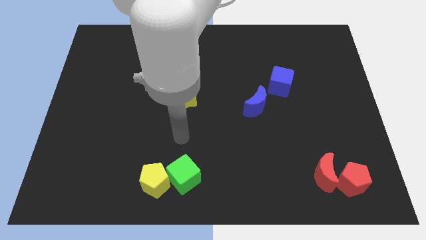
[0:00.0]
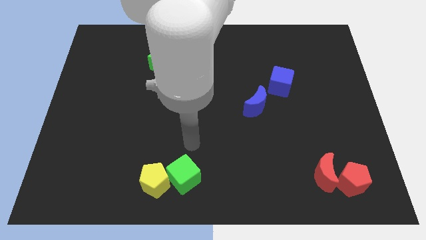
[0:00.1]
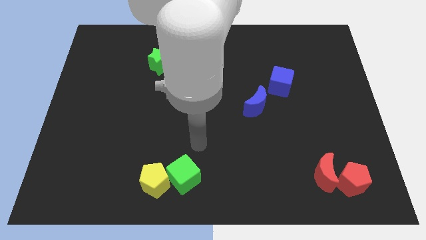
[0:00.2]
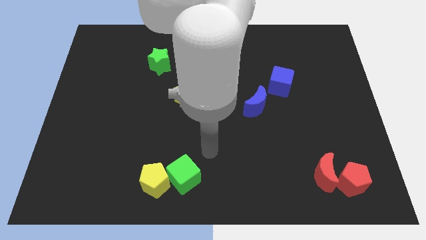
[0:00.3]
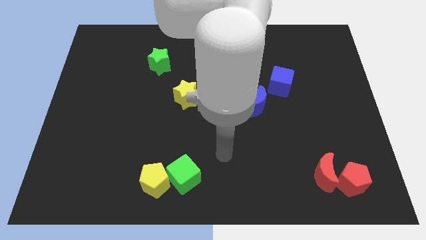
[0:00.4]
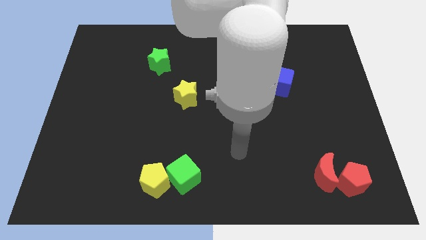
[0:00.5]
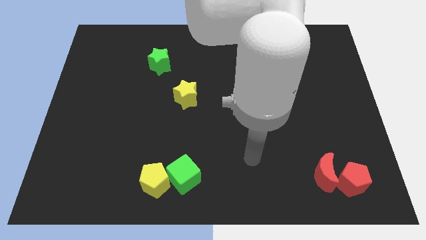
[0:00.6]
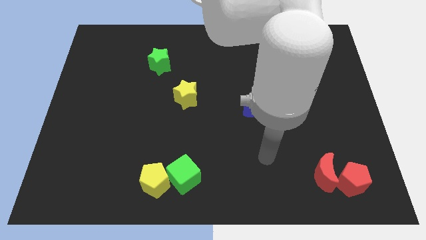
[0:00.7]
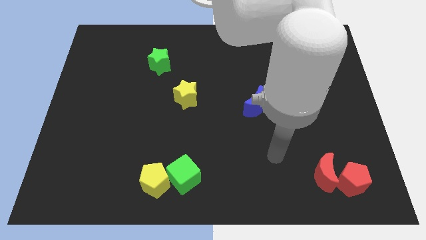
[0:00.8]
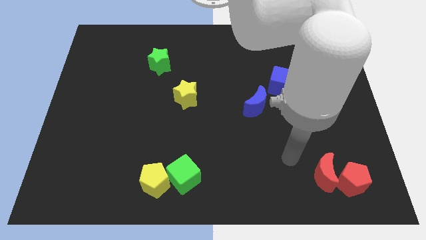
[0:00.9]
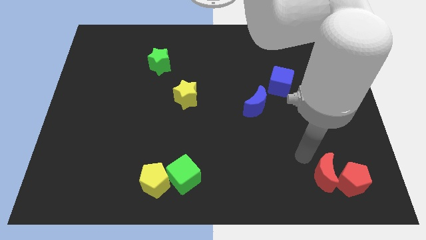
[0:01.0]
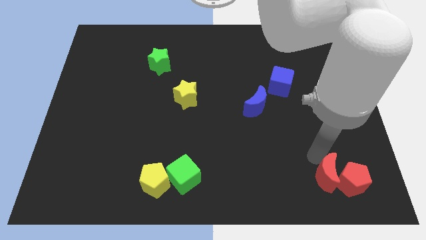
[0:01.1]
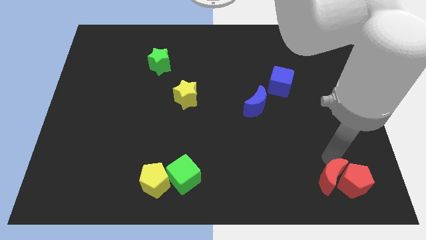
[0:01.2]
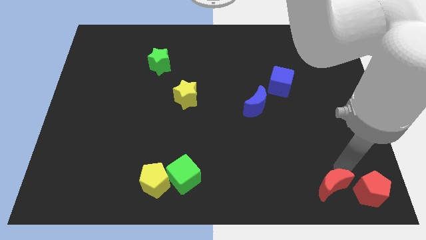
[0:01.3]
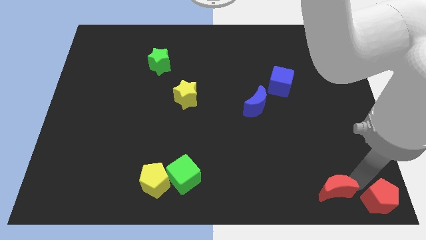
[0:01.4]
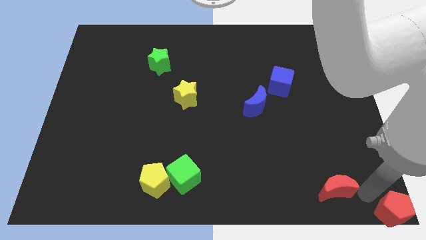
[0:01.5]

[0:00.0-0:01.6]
pull the red moon apart from the red pentagon

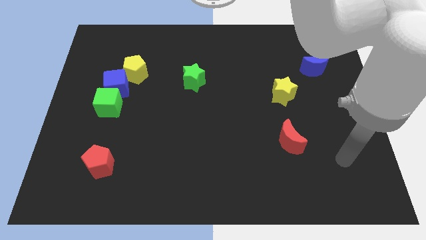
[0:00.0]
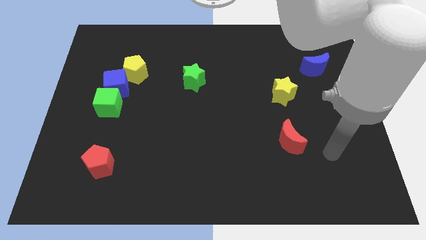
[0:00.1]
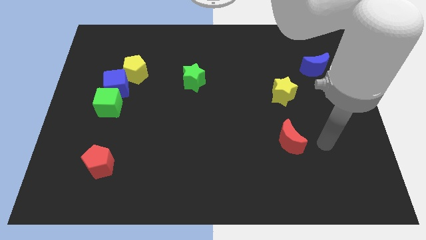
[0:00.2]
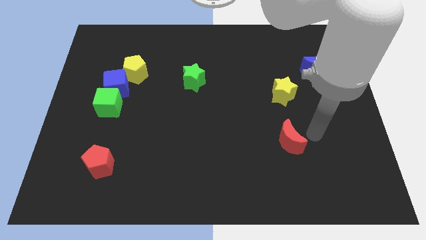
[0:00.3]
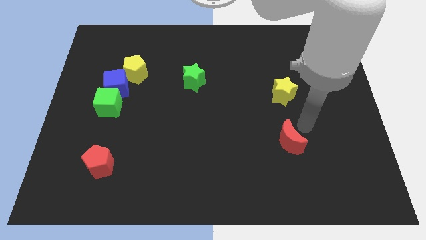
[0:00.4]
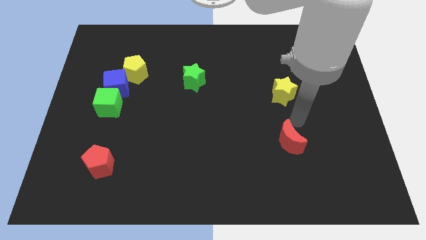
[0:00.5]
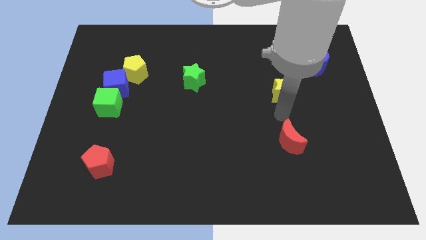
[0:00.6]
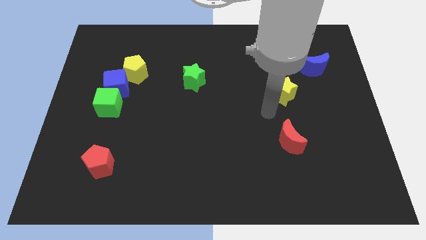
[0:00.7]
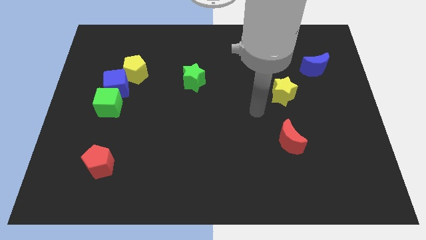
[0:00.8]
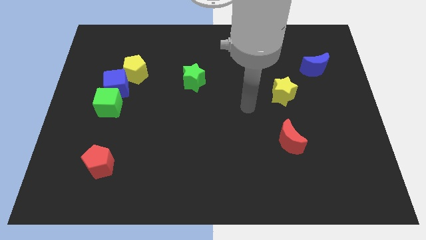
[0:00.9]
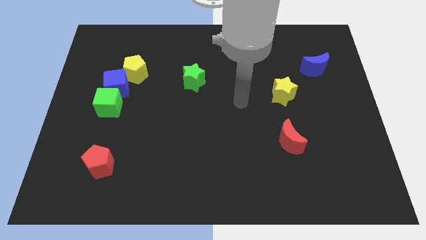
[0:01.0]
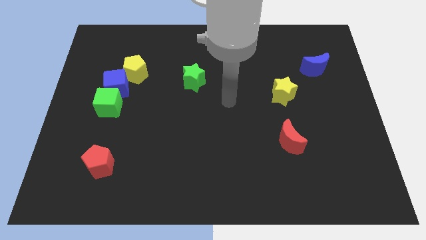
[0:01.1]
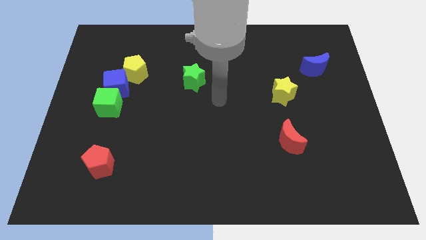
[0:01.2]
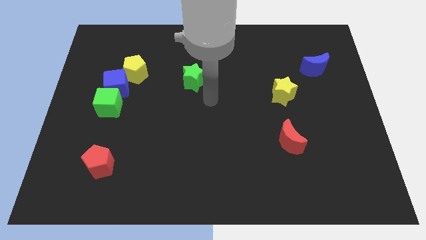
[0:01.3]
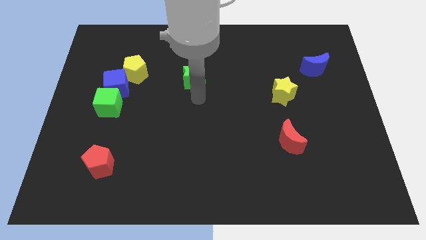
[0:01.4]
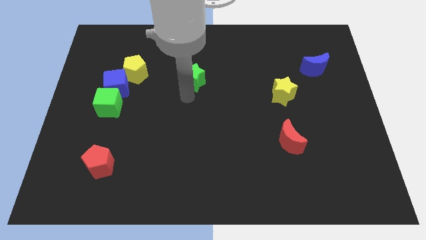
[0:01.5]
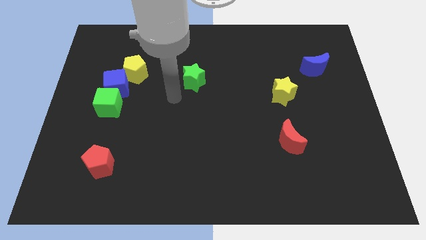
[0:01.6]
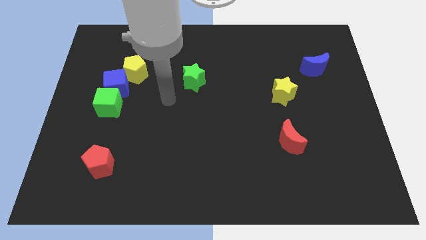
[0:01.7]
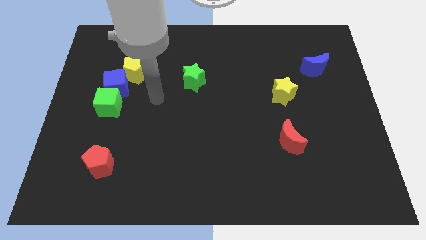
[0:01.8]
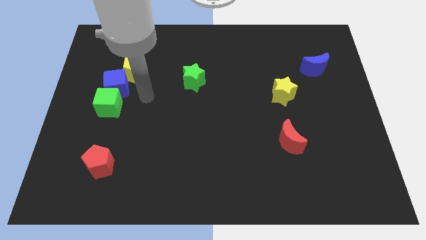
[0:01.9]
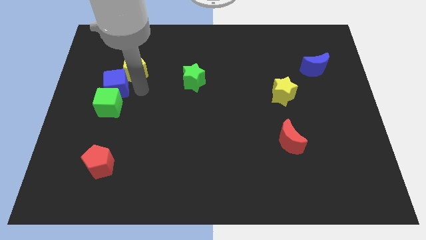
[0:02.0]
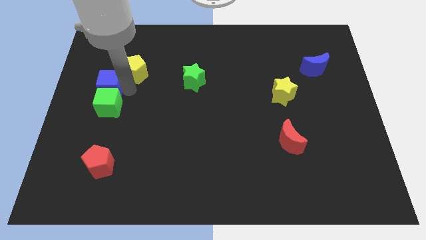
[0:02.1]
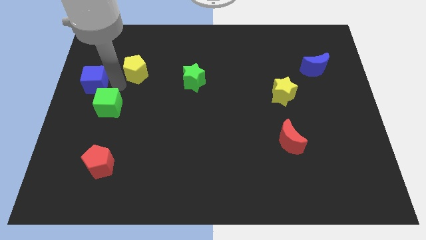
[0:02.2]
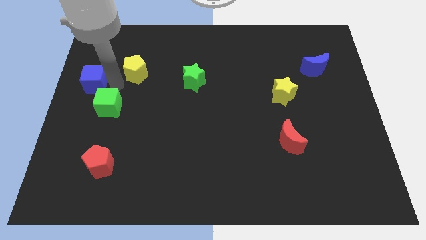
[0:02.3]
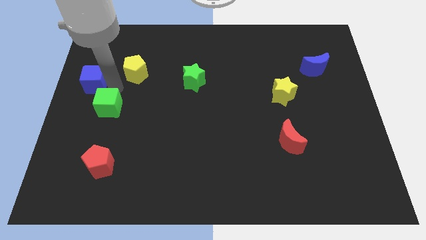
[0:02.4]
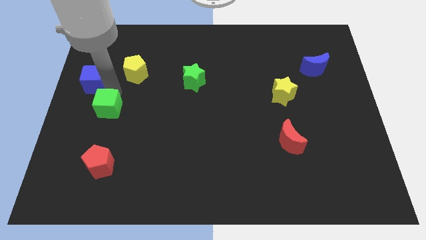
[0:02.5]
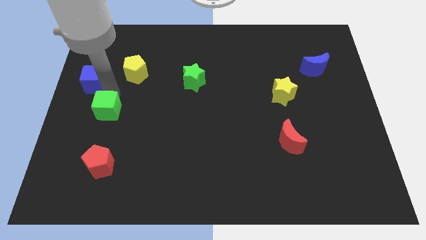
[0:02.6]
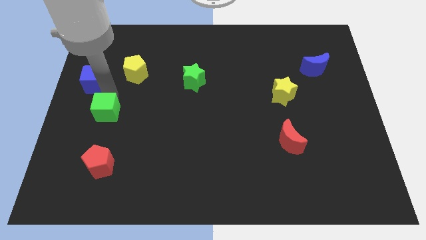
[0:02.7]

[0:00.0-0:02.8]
move the green cube away from the blue cube

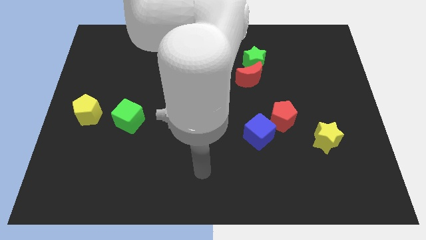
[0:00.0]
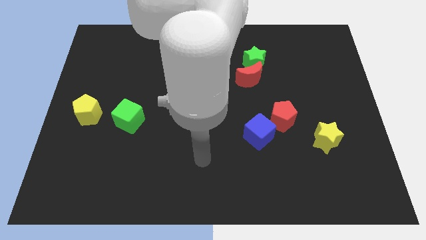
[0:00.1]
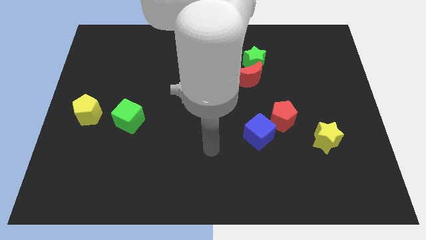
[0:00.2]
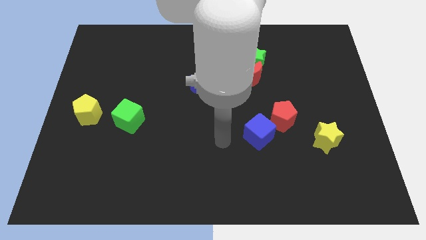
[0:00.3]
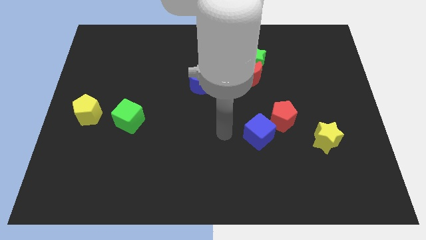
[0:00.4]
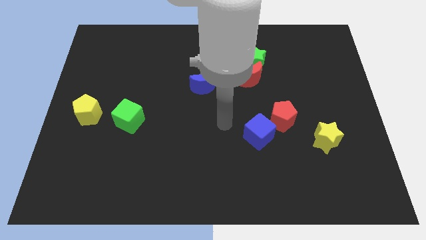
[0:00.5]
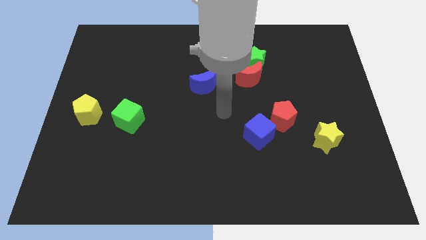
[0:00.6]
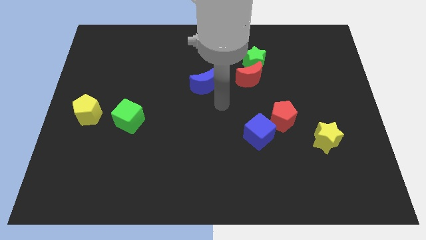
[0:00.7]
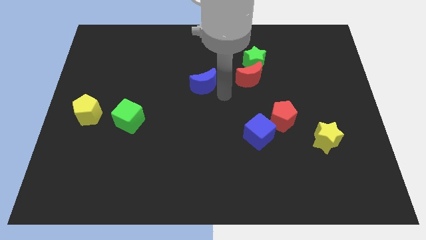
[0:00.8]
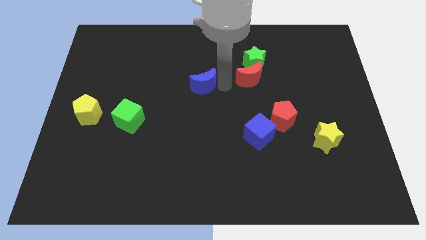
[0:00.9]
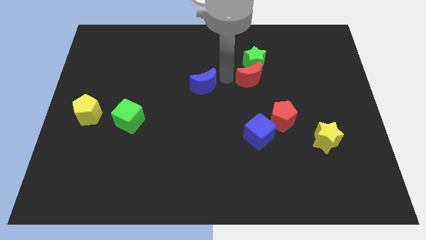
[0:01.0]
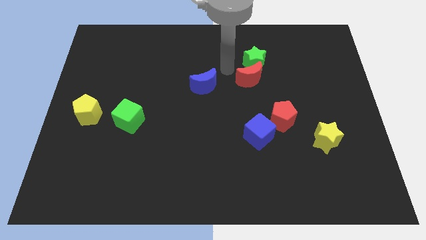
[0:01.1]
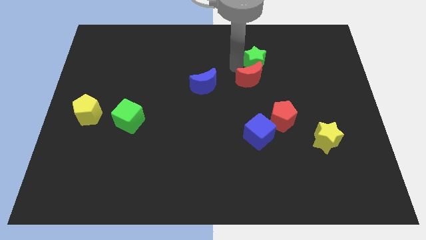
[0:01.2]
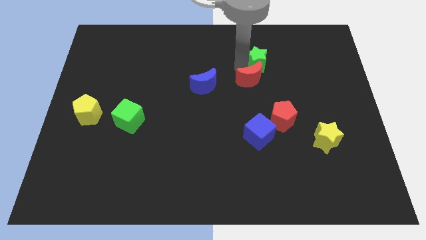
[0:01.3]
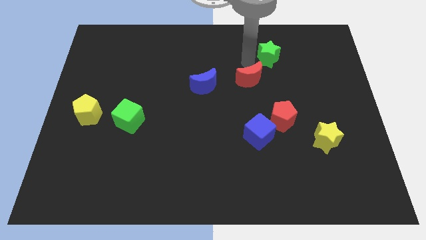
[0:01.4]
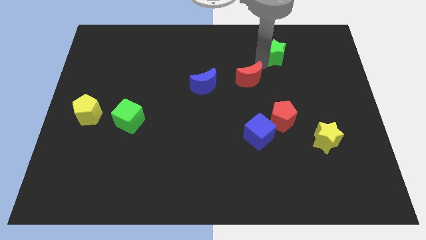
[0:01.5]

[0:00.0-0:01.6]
separate the red moon from the green star

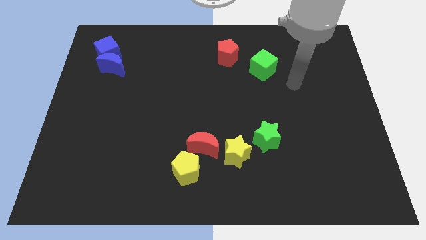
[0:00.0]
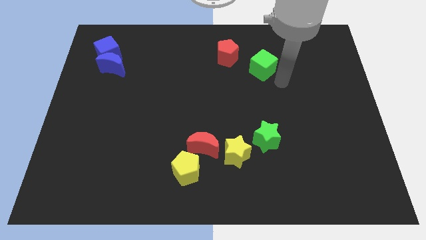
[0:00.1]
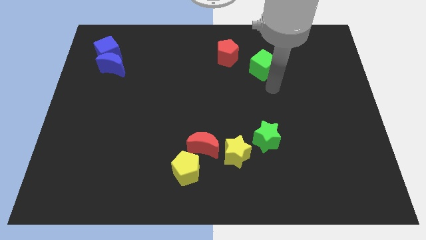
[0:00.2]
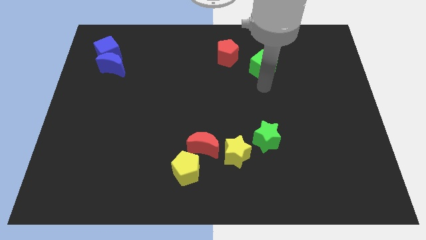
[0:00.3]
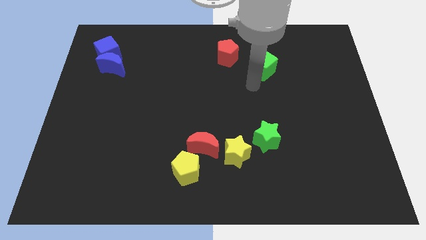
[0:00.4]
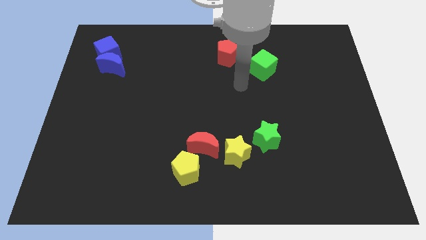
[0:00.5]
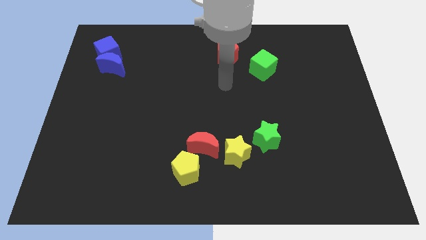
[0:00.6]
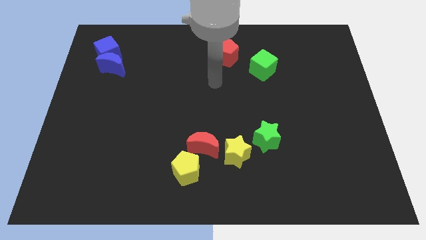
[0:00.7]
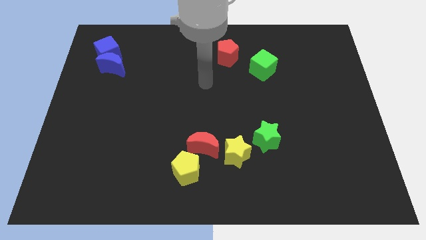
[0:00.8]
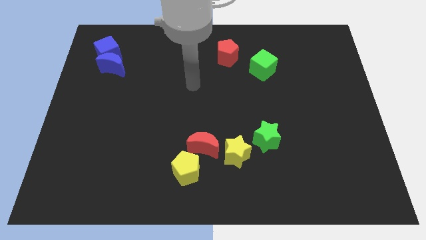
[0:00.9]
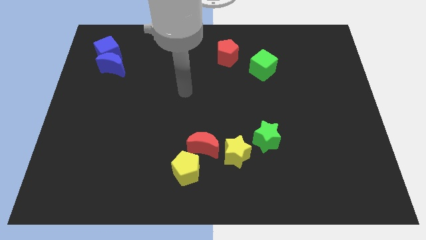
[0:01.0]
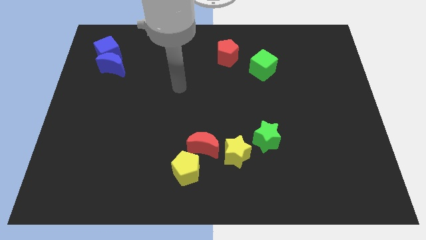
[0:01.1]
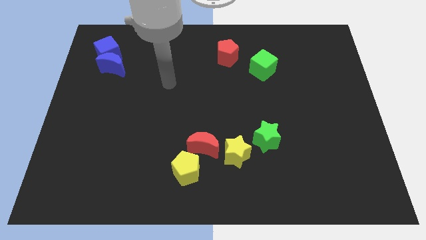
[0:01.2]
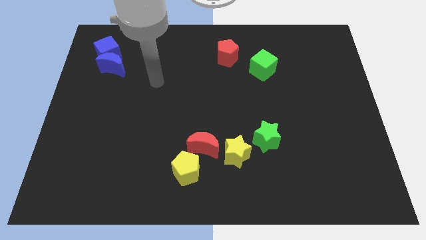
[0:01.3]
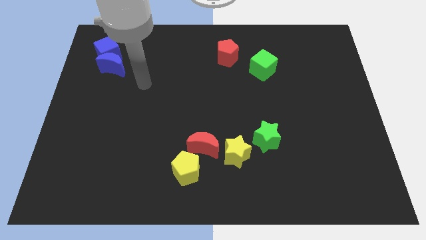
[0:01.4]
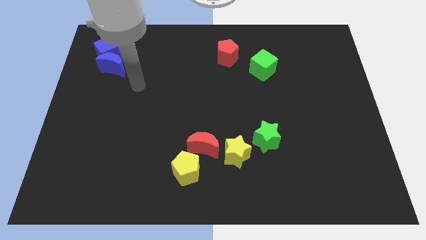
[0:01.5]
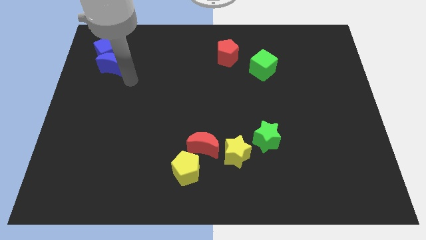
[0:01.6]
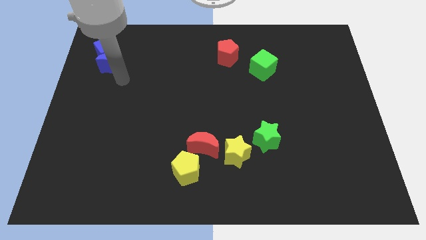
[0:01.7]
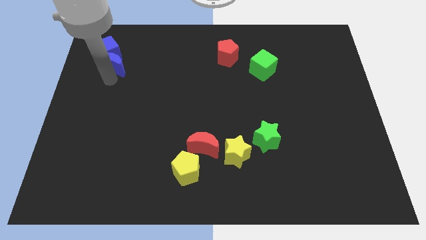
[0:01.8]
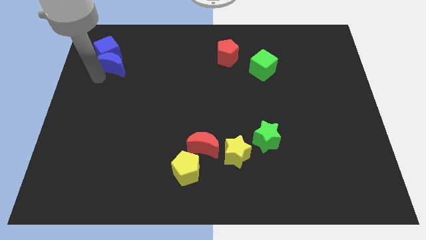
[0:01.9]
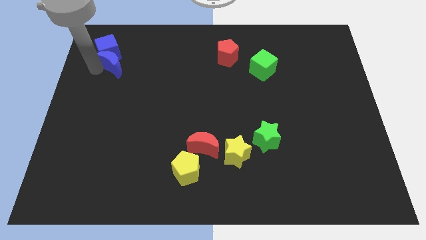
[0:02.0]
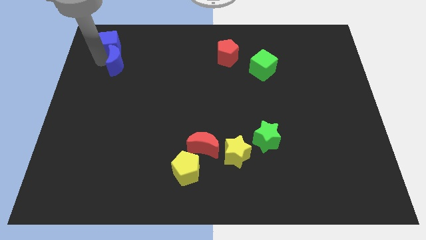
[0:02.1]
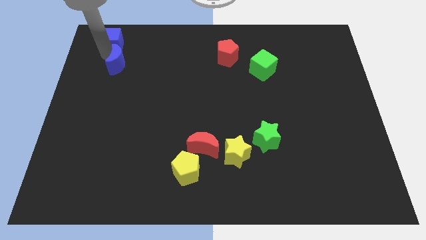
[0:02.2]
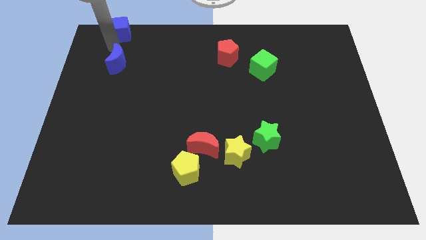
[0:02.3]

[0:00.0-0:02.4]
pull the blue moon apart from the blue cube

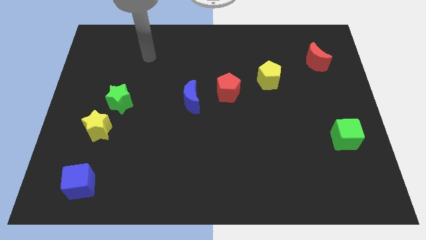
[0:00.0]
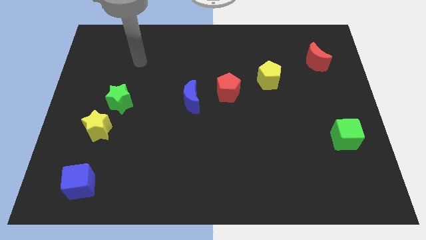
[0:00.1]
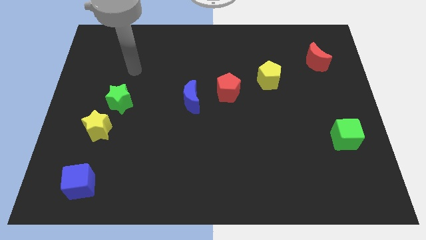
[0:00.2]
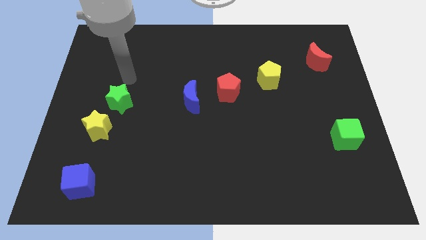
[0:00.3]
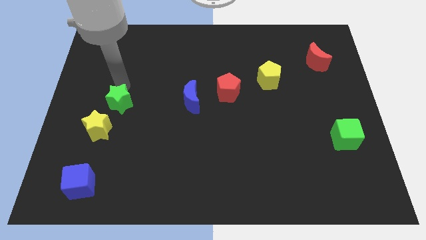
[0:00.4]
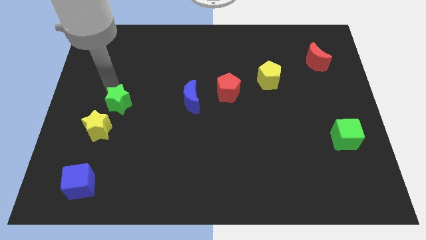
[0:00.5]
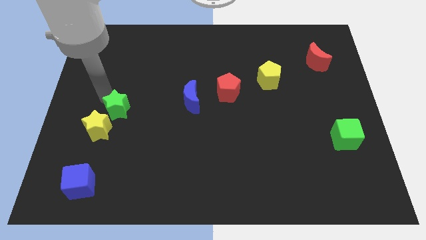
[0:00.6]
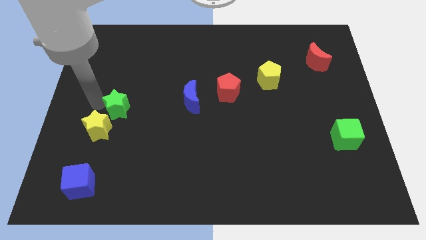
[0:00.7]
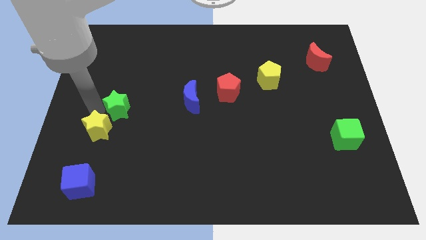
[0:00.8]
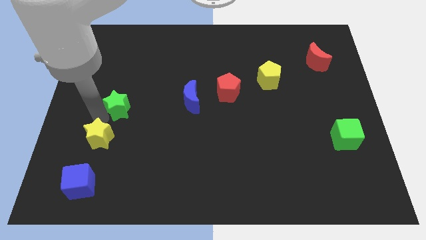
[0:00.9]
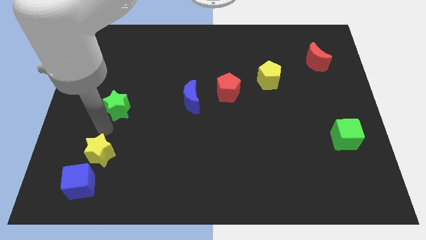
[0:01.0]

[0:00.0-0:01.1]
move the green star away from the yellow star
